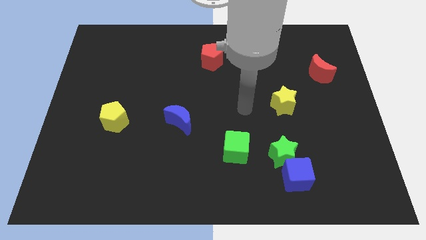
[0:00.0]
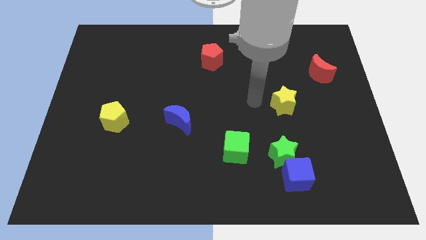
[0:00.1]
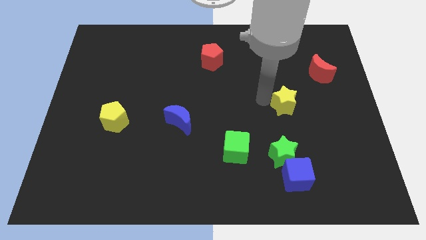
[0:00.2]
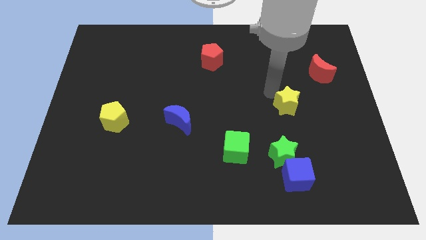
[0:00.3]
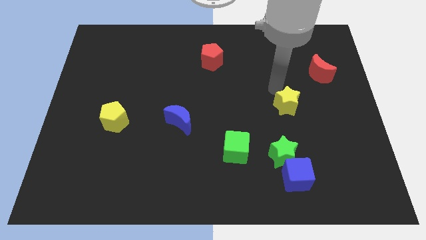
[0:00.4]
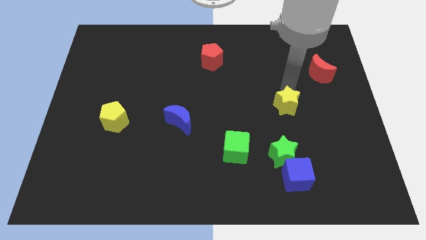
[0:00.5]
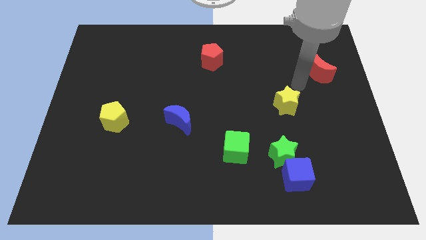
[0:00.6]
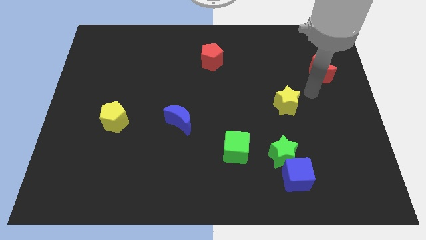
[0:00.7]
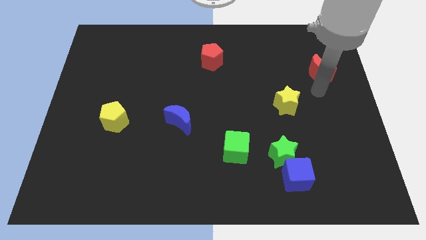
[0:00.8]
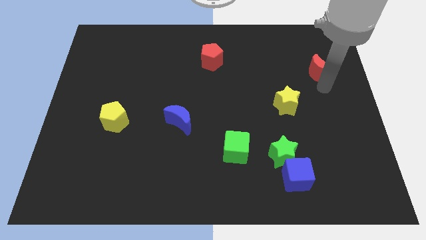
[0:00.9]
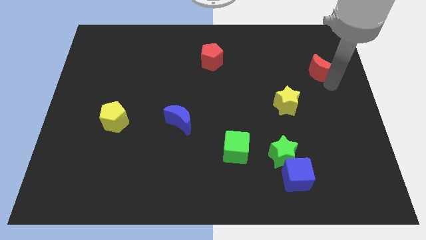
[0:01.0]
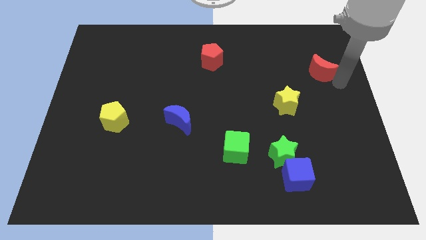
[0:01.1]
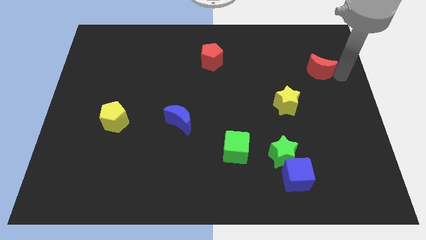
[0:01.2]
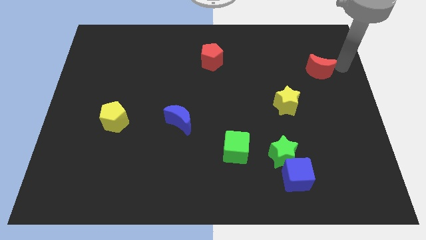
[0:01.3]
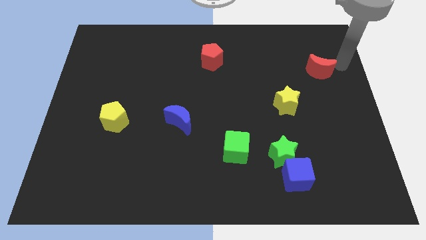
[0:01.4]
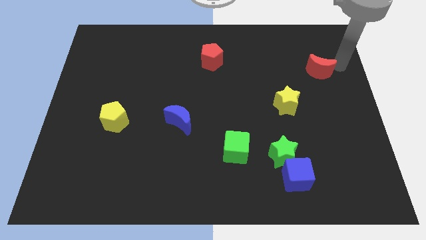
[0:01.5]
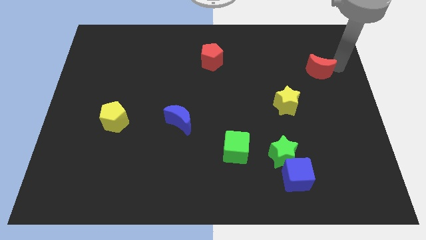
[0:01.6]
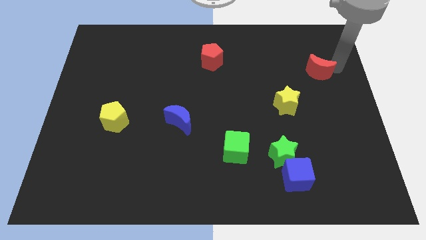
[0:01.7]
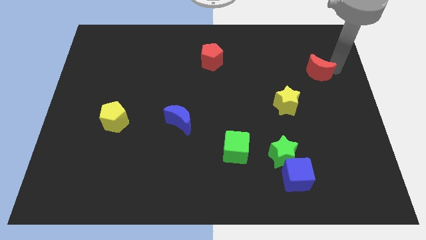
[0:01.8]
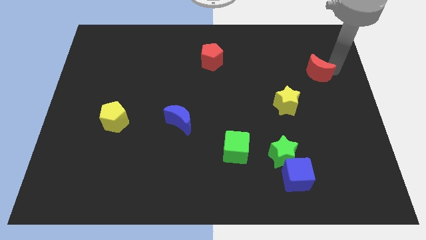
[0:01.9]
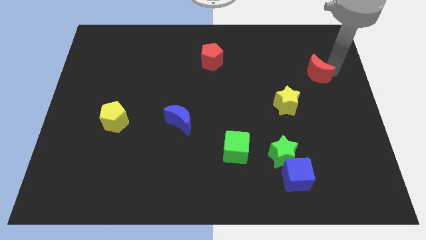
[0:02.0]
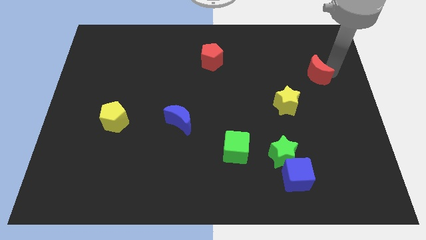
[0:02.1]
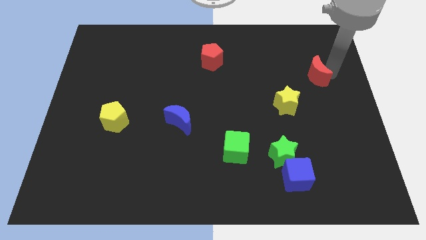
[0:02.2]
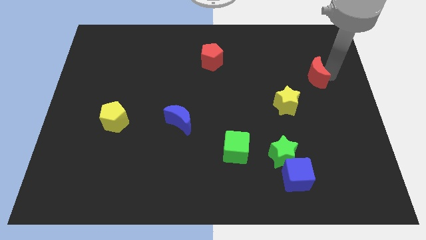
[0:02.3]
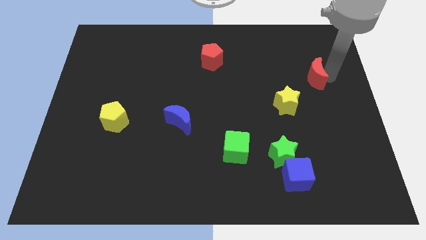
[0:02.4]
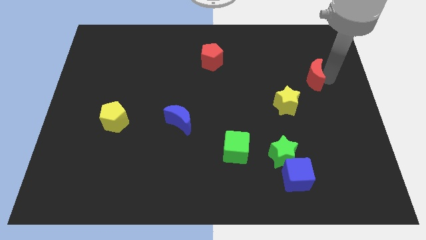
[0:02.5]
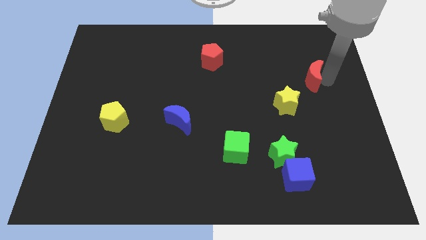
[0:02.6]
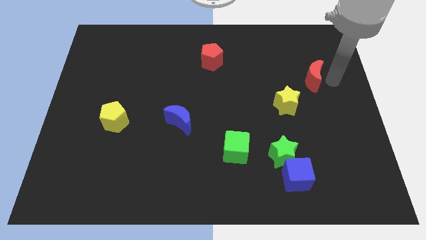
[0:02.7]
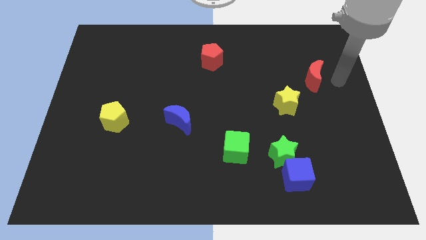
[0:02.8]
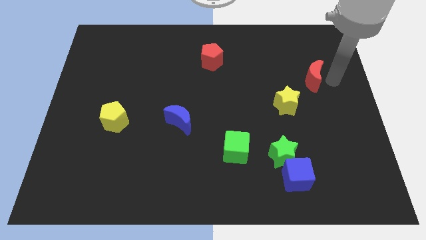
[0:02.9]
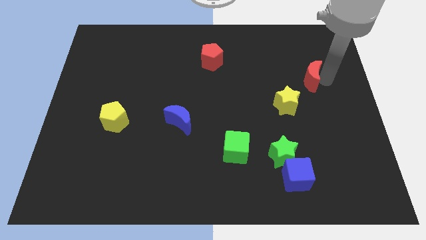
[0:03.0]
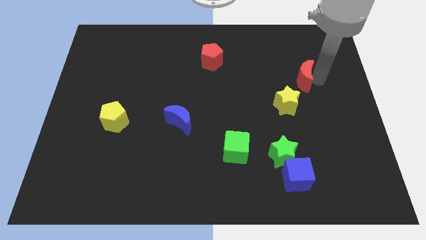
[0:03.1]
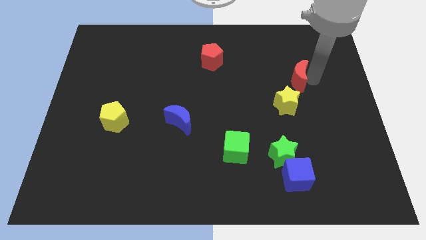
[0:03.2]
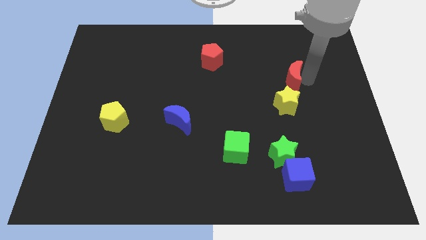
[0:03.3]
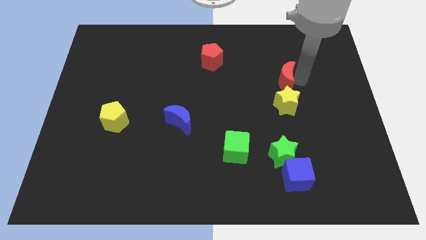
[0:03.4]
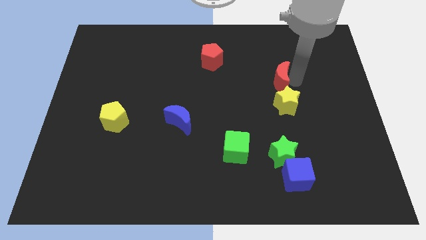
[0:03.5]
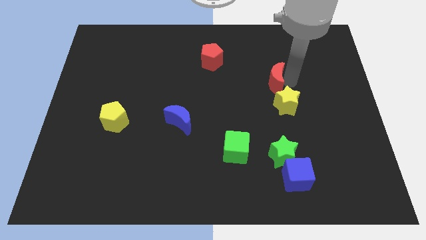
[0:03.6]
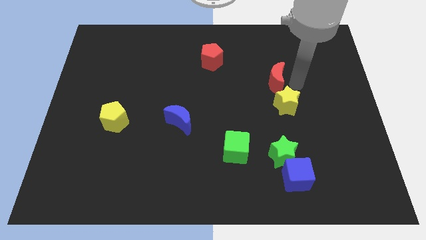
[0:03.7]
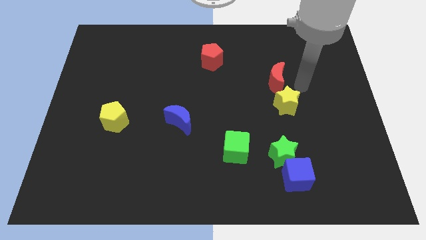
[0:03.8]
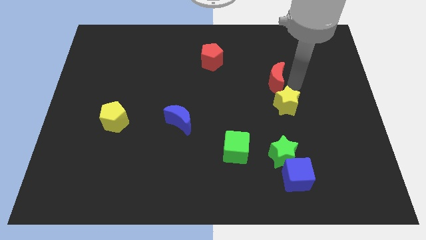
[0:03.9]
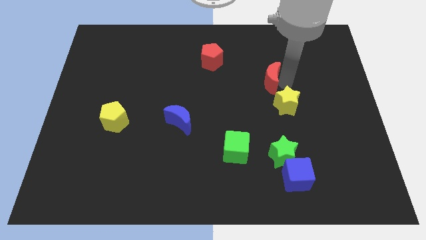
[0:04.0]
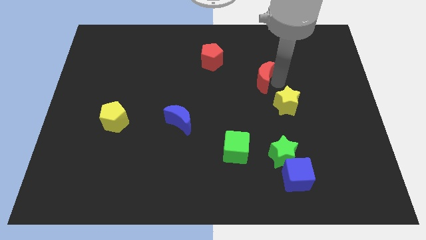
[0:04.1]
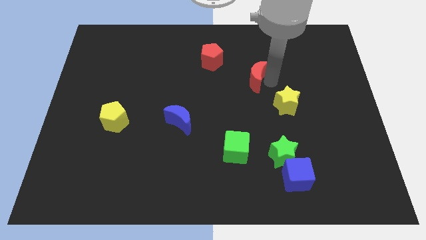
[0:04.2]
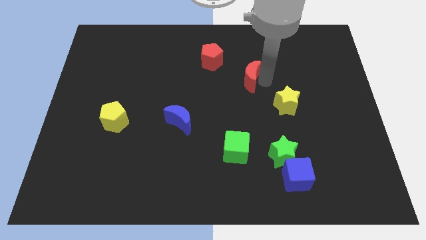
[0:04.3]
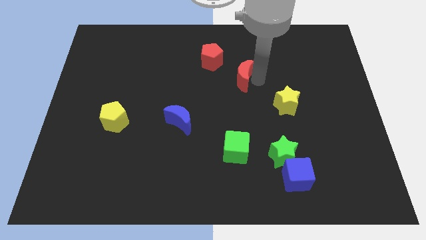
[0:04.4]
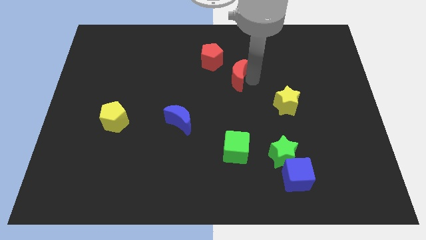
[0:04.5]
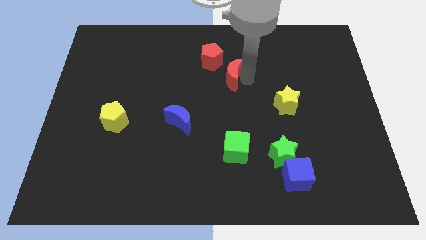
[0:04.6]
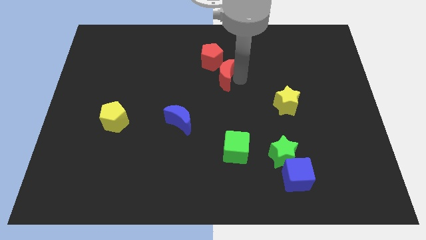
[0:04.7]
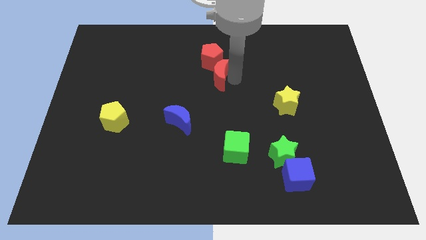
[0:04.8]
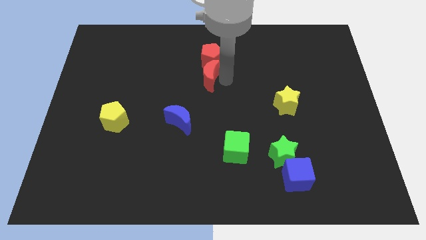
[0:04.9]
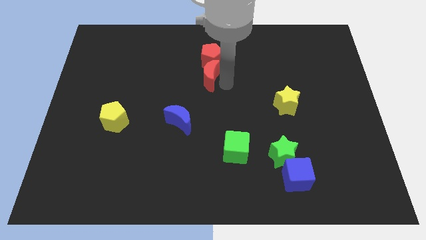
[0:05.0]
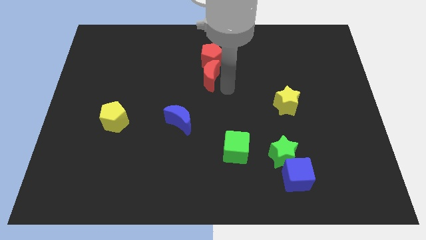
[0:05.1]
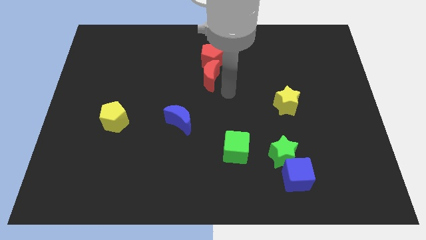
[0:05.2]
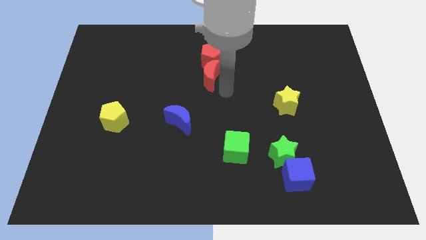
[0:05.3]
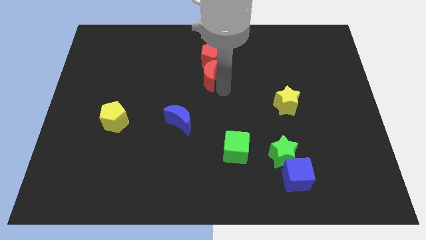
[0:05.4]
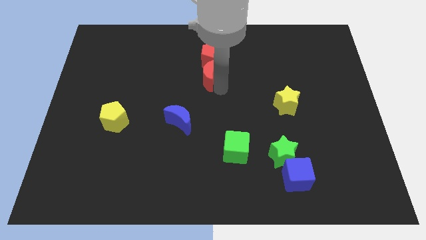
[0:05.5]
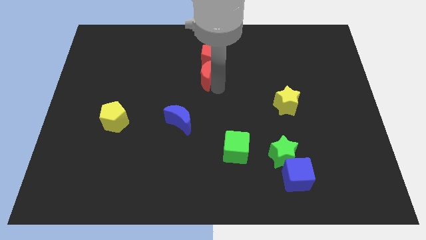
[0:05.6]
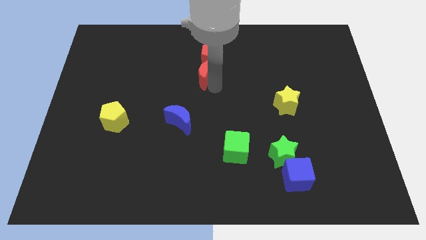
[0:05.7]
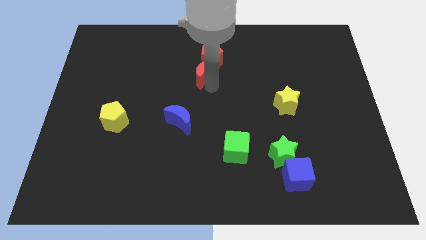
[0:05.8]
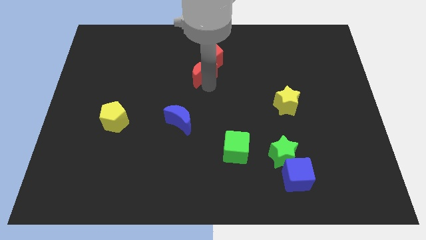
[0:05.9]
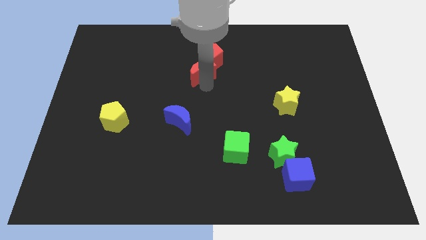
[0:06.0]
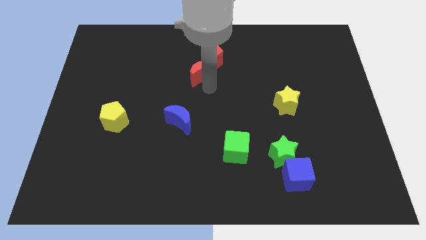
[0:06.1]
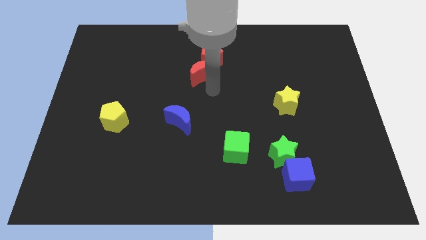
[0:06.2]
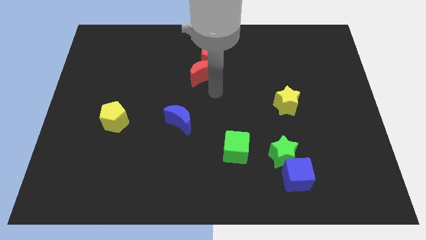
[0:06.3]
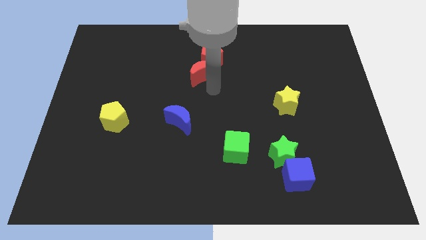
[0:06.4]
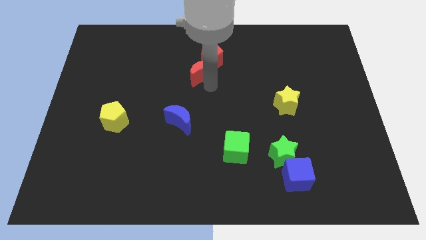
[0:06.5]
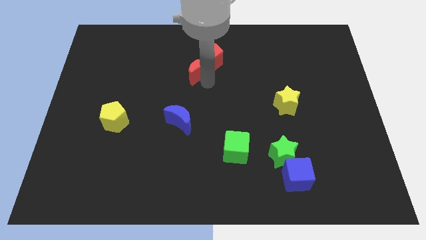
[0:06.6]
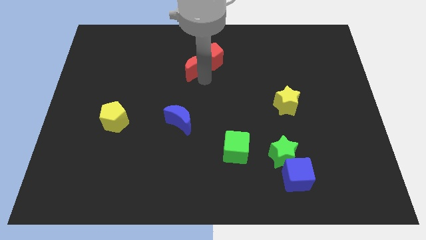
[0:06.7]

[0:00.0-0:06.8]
put the red moon to the left of the red pentagon
